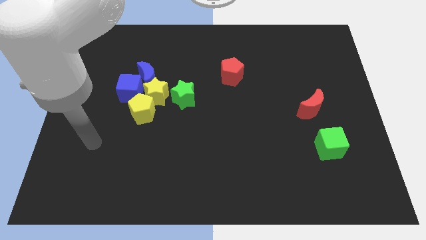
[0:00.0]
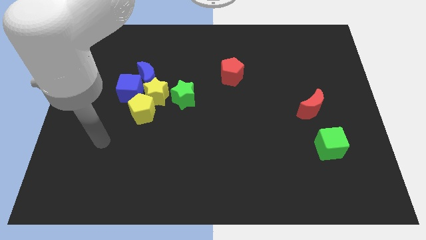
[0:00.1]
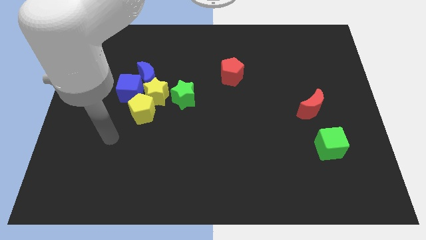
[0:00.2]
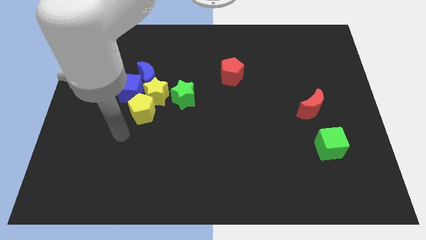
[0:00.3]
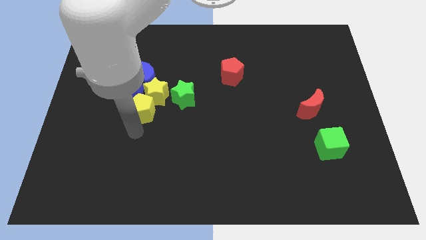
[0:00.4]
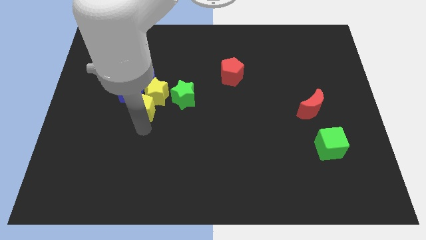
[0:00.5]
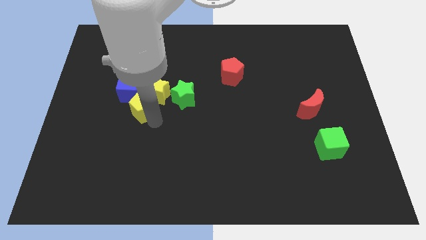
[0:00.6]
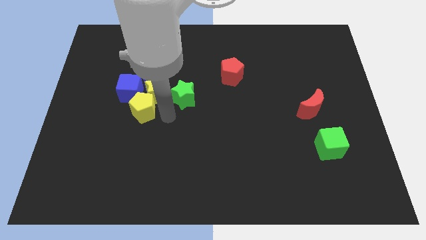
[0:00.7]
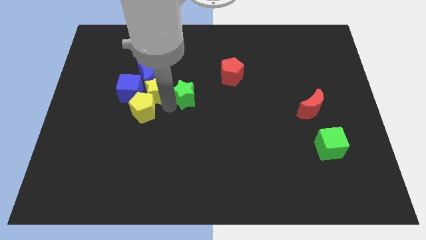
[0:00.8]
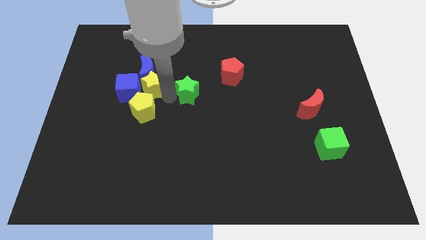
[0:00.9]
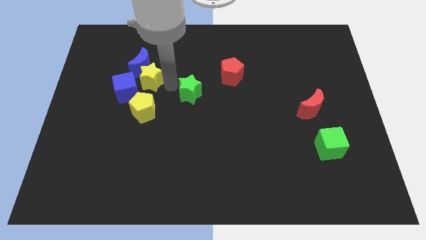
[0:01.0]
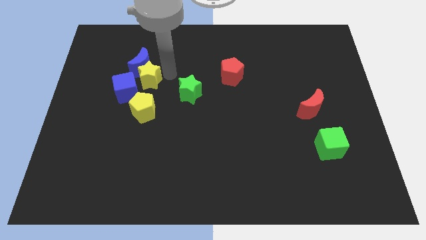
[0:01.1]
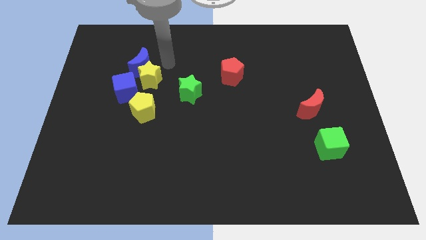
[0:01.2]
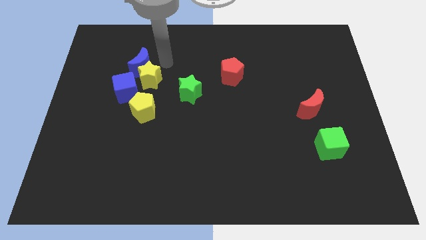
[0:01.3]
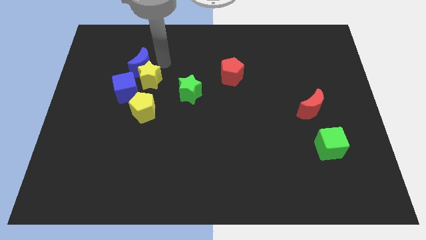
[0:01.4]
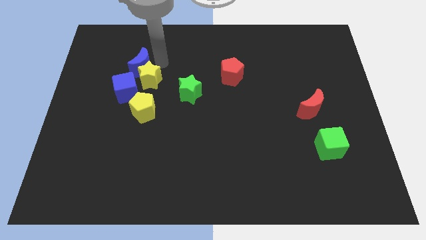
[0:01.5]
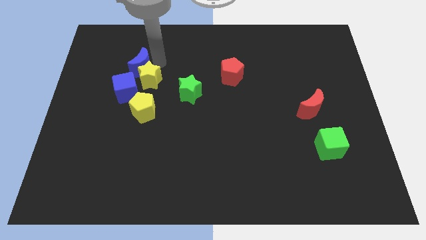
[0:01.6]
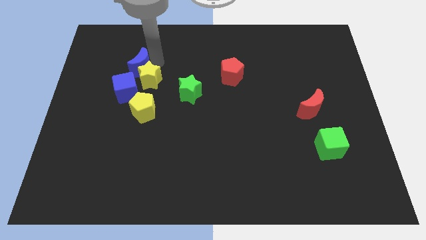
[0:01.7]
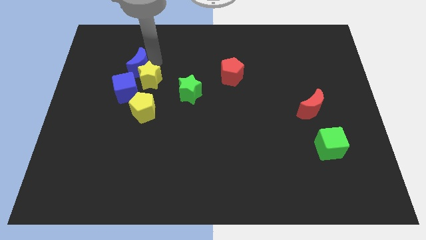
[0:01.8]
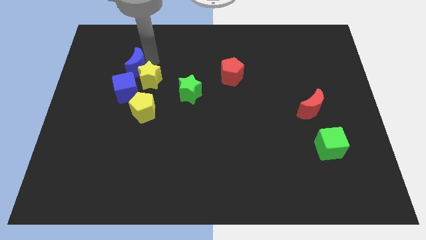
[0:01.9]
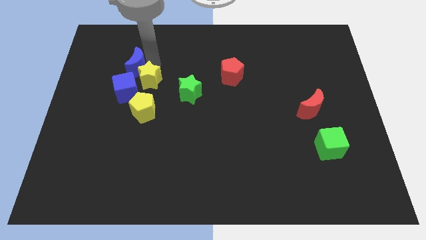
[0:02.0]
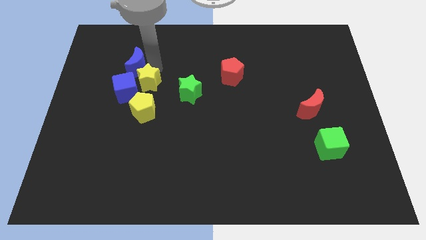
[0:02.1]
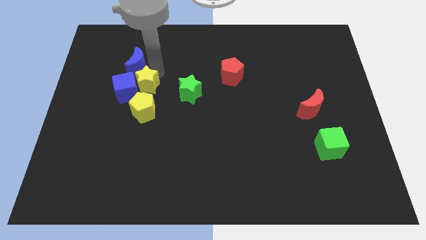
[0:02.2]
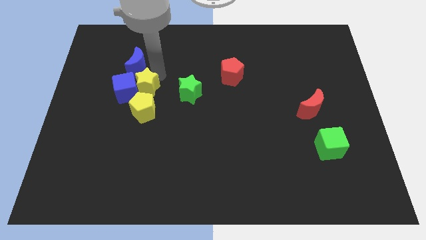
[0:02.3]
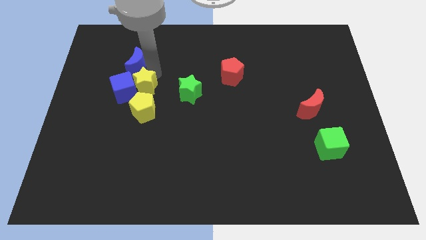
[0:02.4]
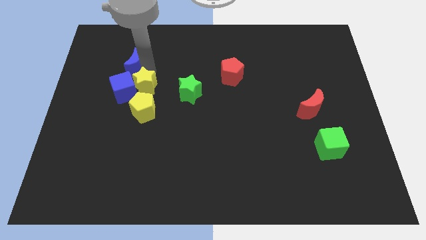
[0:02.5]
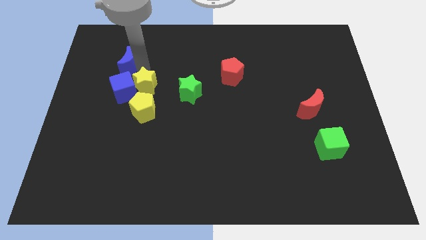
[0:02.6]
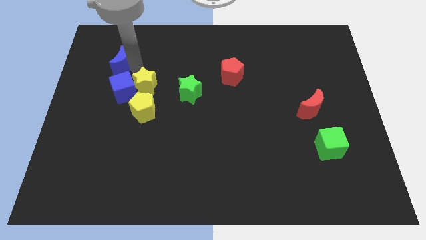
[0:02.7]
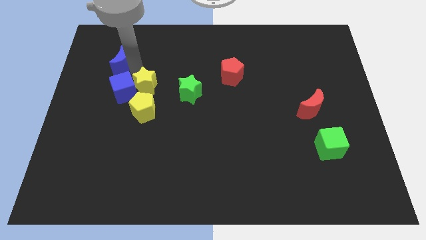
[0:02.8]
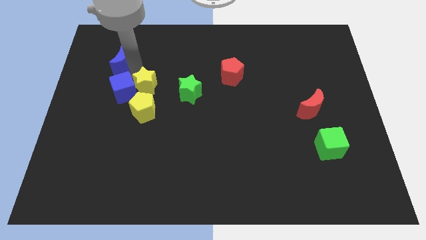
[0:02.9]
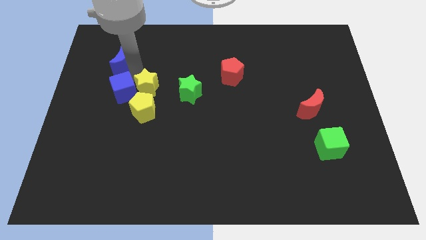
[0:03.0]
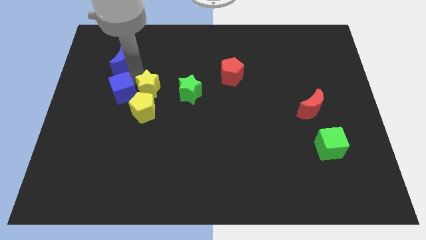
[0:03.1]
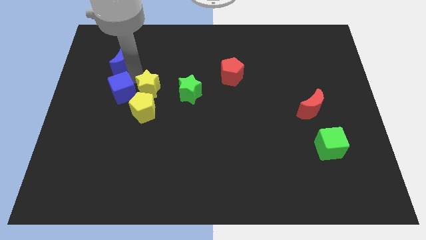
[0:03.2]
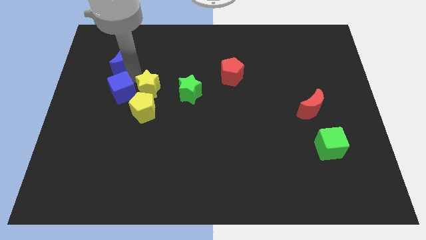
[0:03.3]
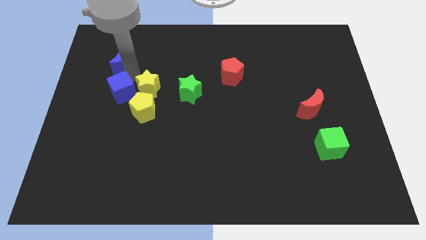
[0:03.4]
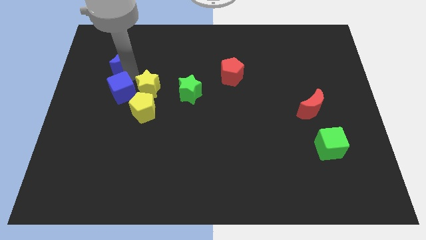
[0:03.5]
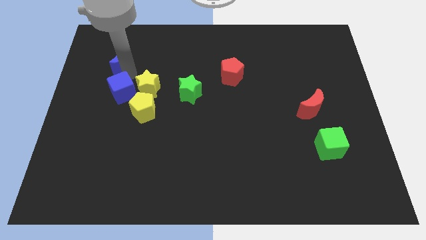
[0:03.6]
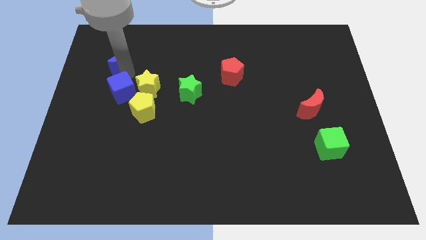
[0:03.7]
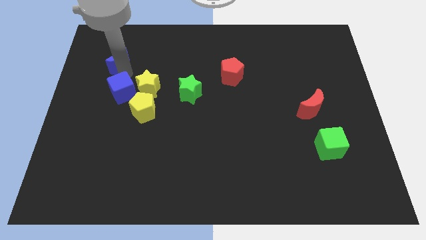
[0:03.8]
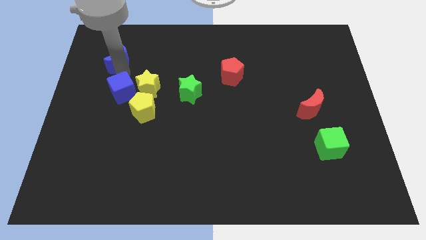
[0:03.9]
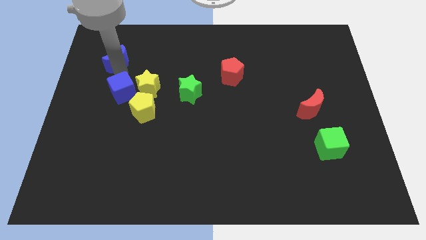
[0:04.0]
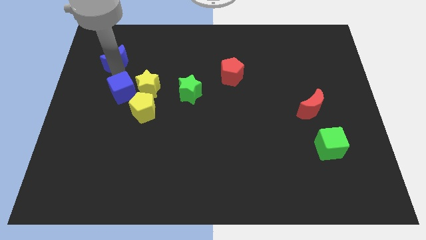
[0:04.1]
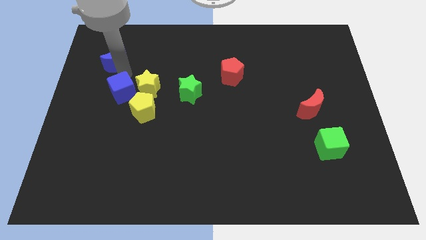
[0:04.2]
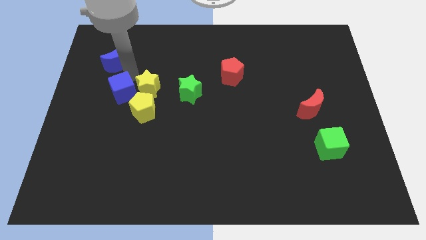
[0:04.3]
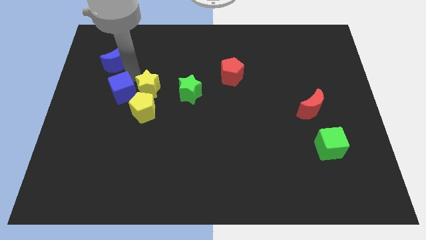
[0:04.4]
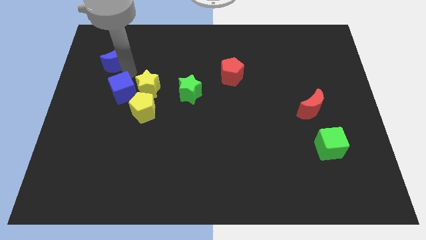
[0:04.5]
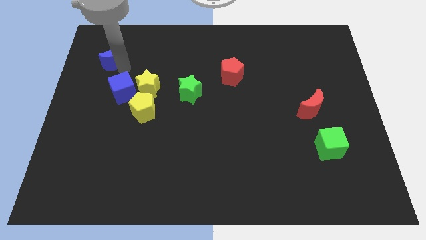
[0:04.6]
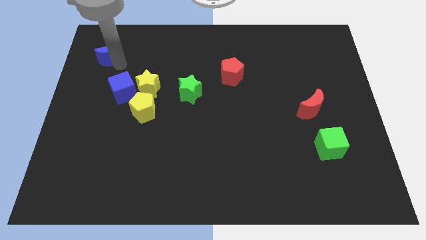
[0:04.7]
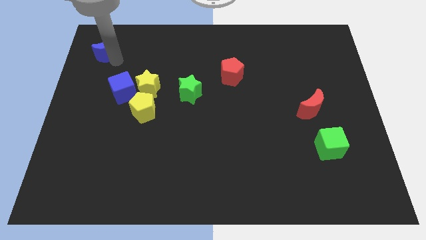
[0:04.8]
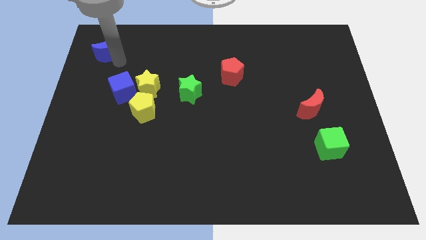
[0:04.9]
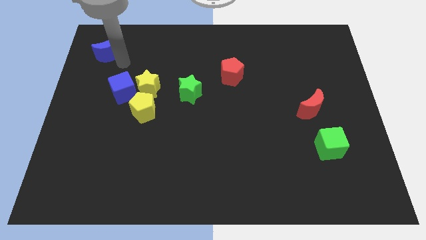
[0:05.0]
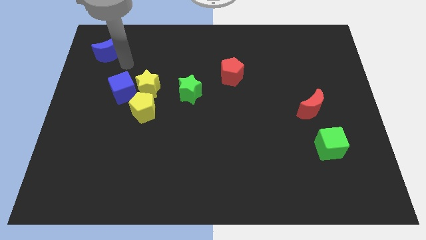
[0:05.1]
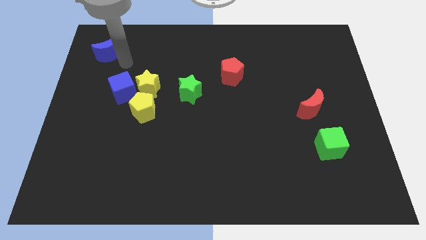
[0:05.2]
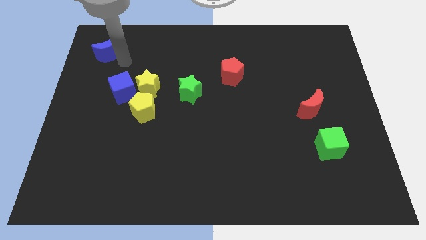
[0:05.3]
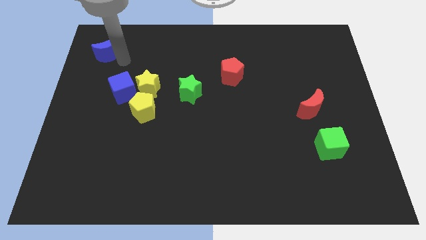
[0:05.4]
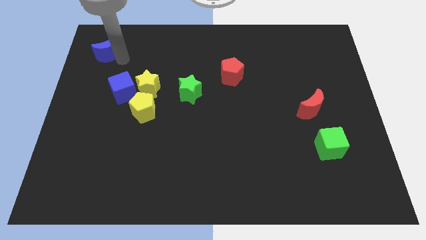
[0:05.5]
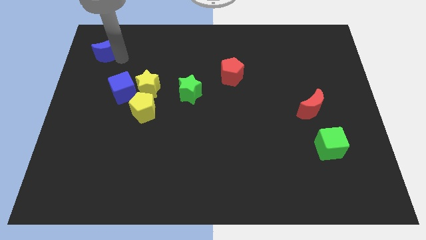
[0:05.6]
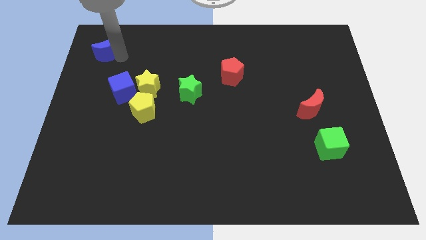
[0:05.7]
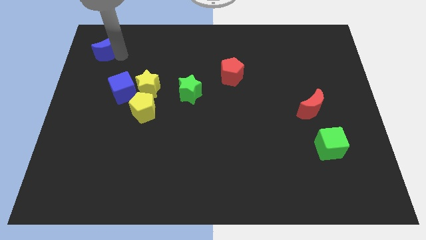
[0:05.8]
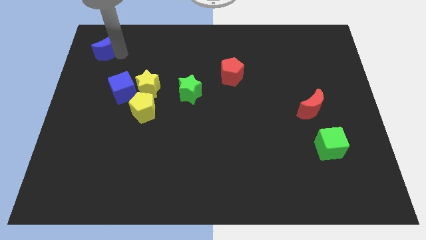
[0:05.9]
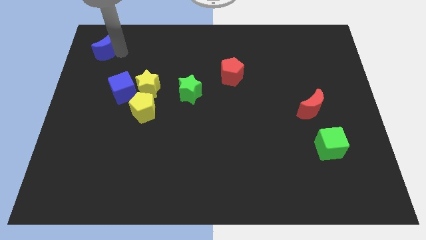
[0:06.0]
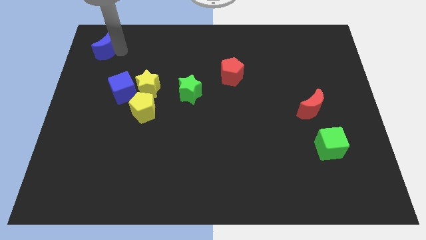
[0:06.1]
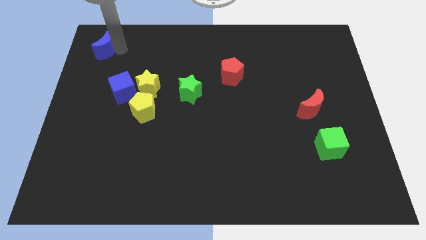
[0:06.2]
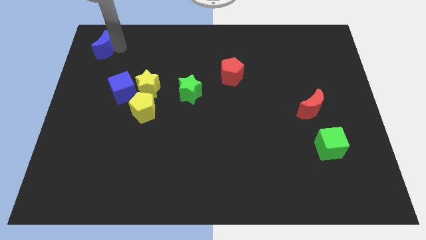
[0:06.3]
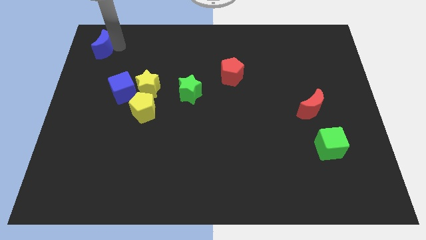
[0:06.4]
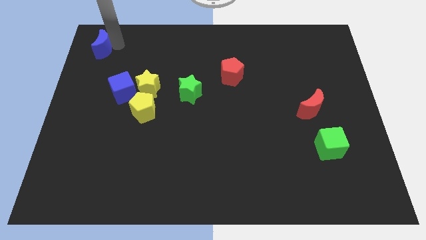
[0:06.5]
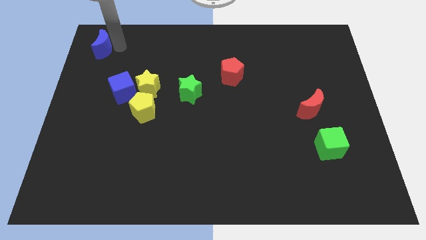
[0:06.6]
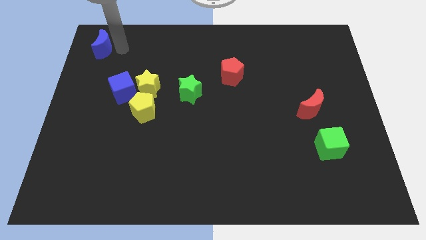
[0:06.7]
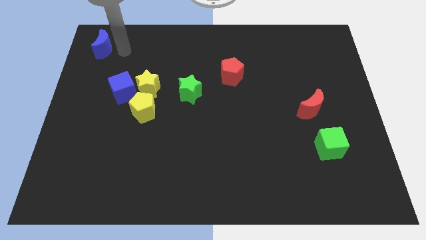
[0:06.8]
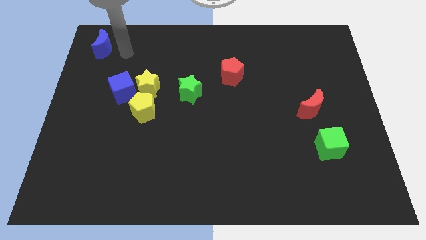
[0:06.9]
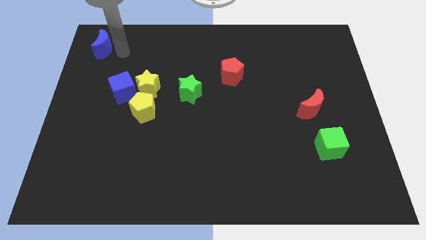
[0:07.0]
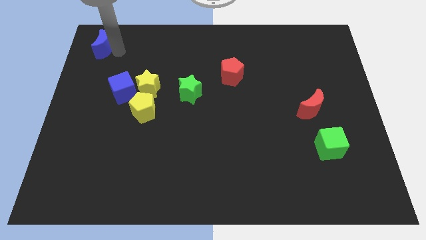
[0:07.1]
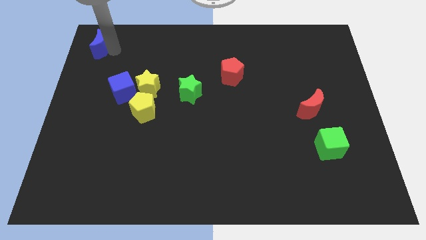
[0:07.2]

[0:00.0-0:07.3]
push the blue moon to the top left of the board
